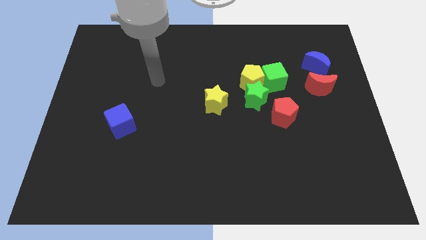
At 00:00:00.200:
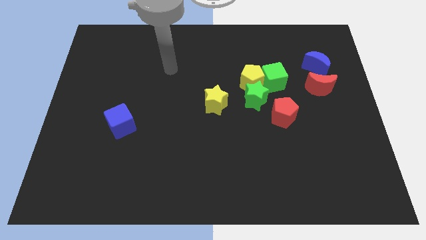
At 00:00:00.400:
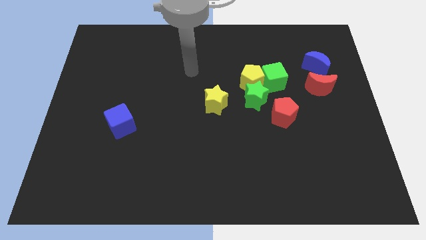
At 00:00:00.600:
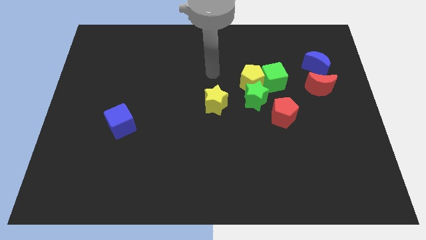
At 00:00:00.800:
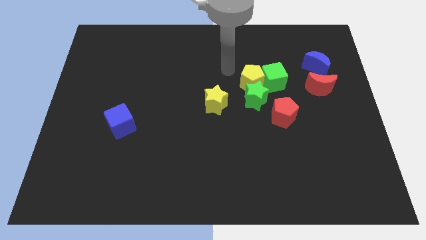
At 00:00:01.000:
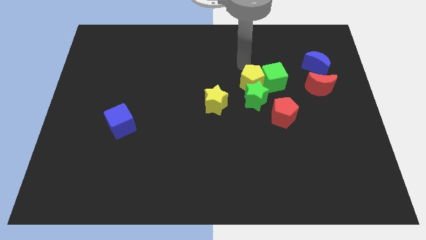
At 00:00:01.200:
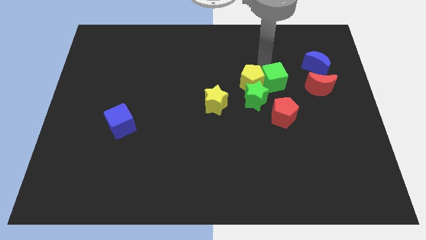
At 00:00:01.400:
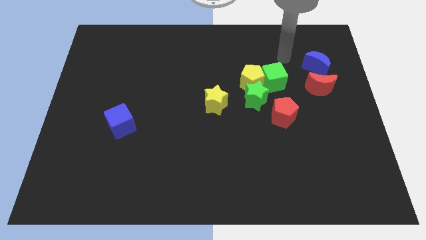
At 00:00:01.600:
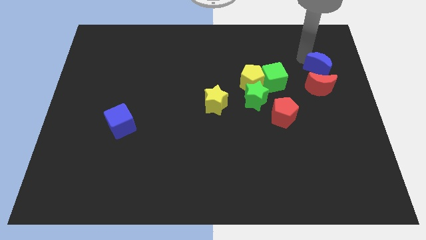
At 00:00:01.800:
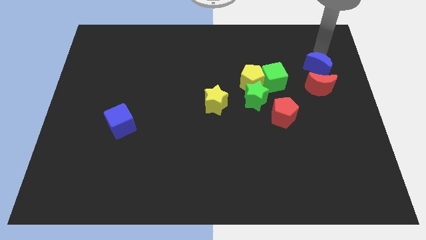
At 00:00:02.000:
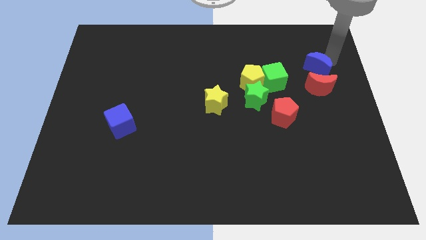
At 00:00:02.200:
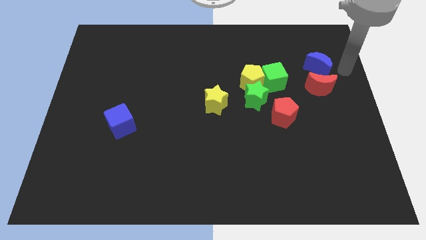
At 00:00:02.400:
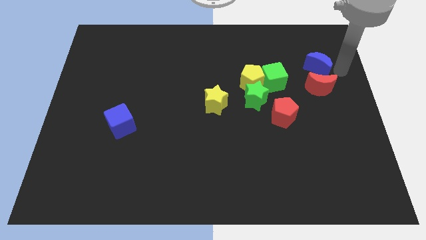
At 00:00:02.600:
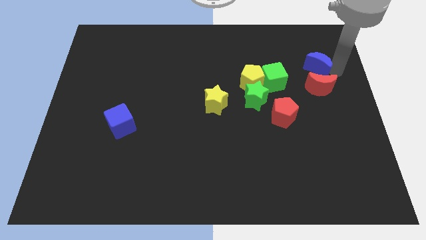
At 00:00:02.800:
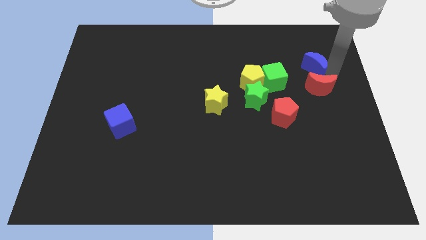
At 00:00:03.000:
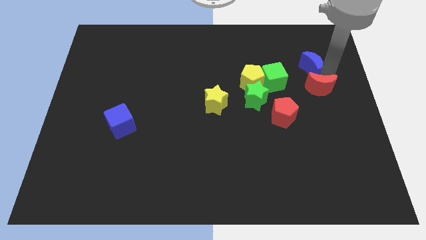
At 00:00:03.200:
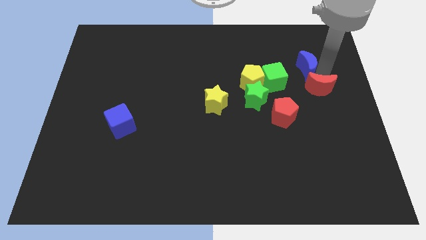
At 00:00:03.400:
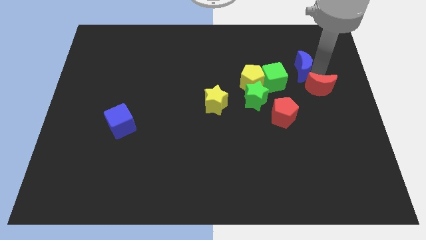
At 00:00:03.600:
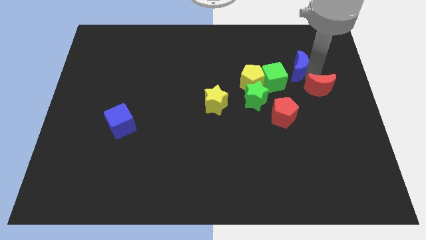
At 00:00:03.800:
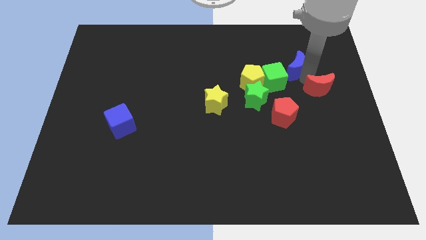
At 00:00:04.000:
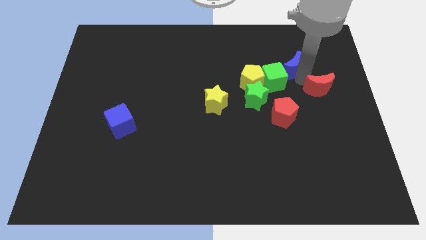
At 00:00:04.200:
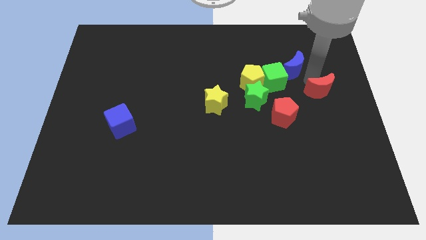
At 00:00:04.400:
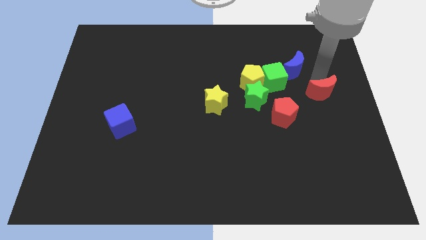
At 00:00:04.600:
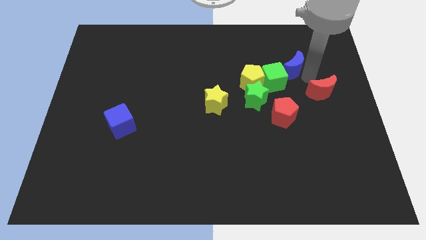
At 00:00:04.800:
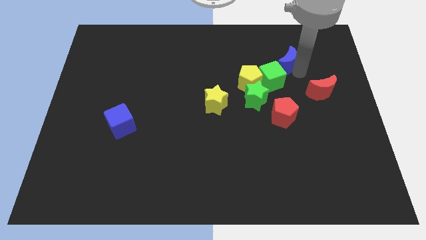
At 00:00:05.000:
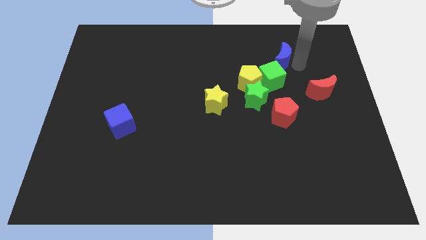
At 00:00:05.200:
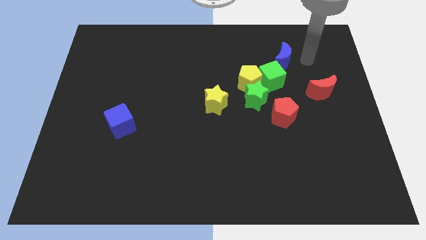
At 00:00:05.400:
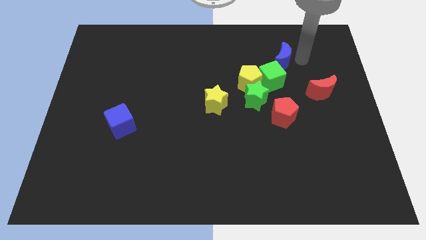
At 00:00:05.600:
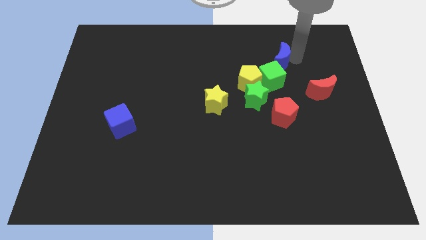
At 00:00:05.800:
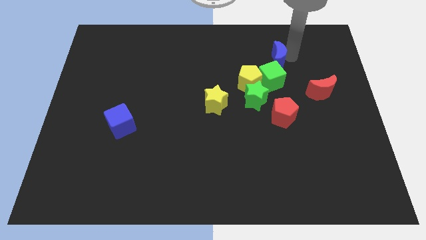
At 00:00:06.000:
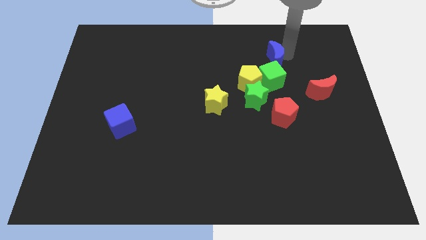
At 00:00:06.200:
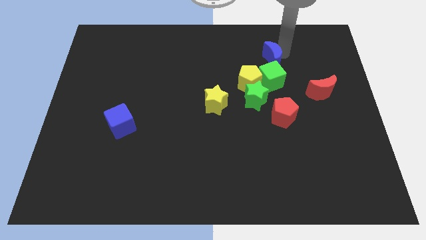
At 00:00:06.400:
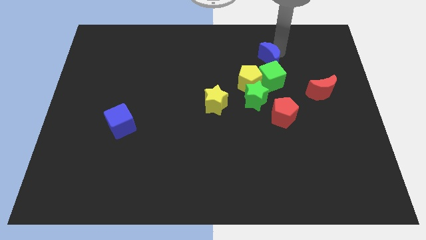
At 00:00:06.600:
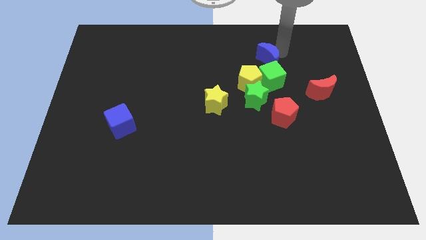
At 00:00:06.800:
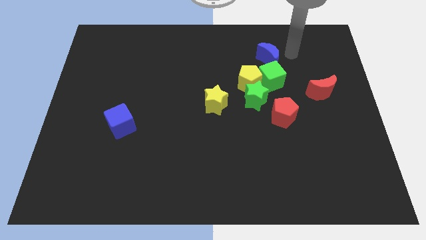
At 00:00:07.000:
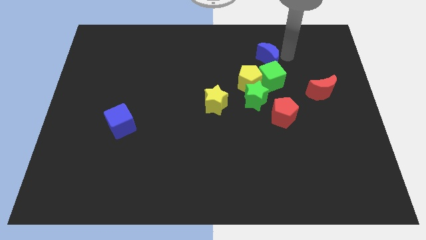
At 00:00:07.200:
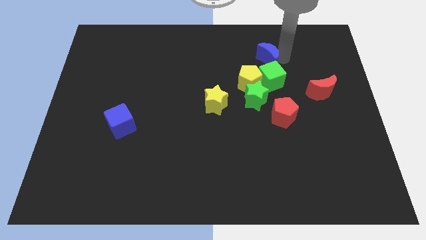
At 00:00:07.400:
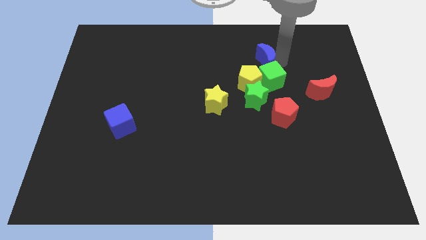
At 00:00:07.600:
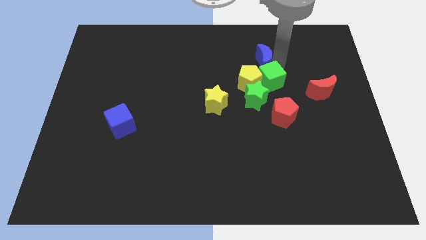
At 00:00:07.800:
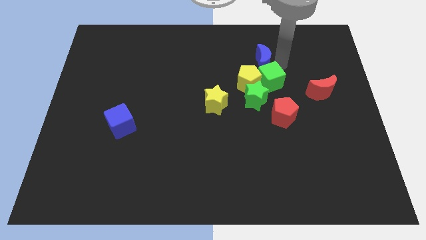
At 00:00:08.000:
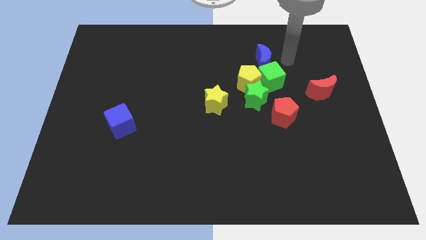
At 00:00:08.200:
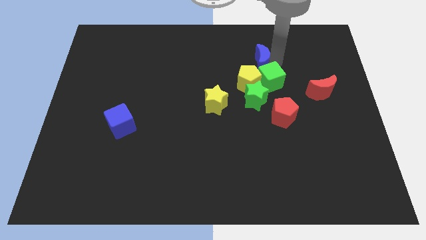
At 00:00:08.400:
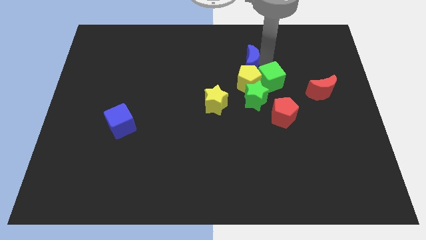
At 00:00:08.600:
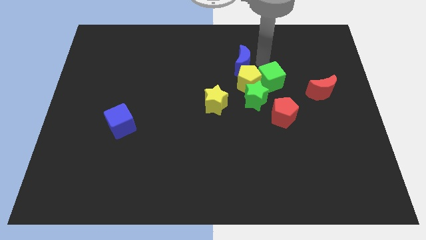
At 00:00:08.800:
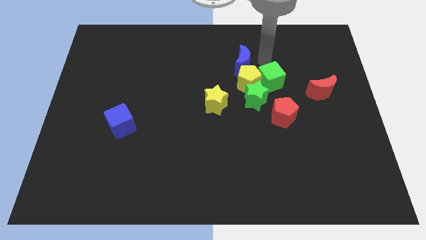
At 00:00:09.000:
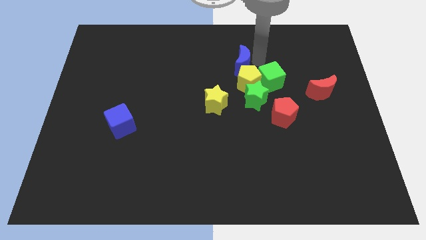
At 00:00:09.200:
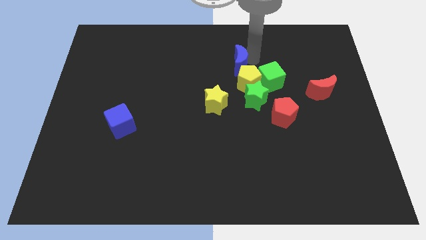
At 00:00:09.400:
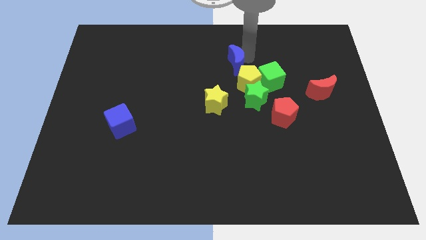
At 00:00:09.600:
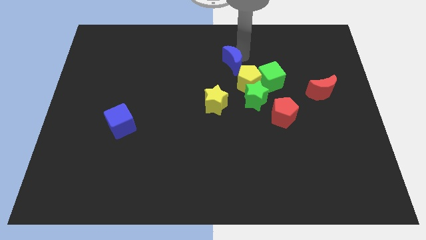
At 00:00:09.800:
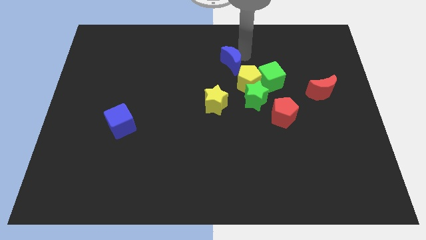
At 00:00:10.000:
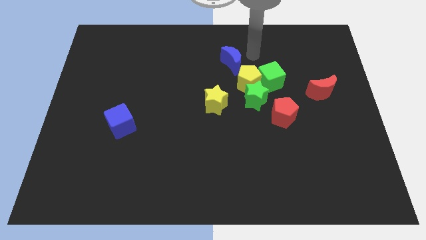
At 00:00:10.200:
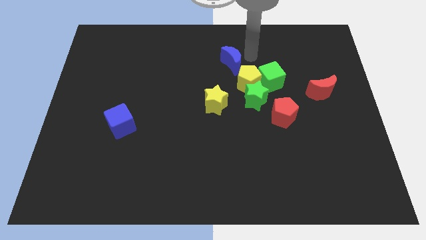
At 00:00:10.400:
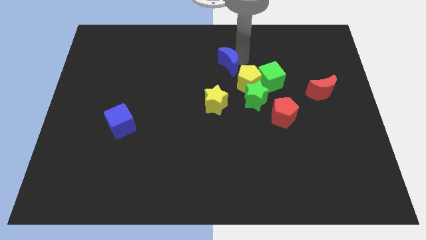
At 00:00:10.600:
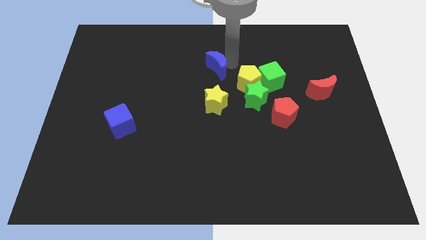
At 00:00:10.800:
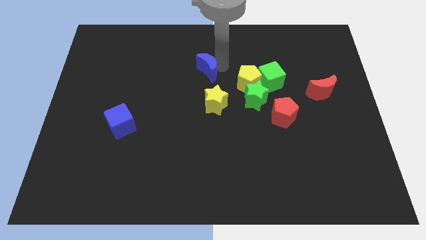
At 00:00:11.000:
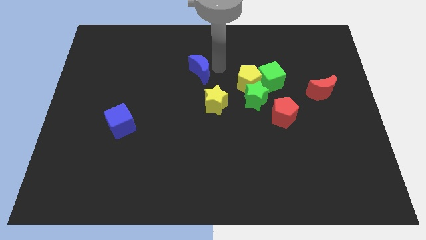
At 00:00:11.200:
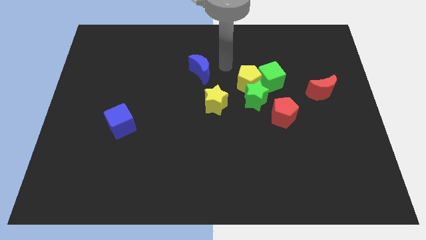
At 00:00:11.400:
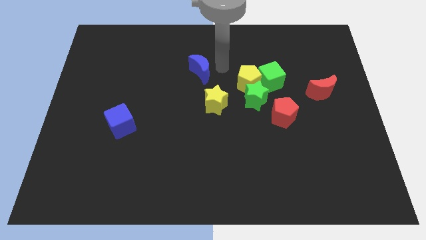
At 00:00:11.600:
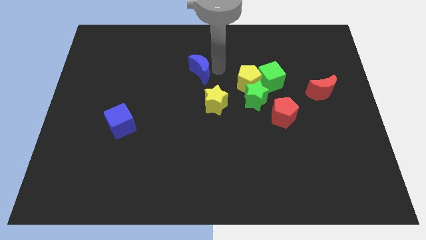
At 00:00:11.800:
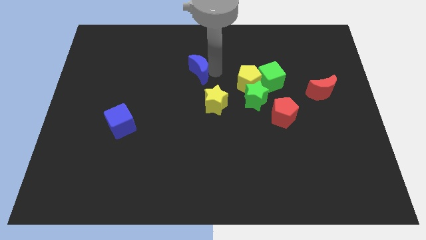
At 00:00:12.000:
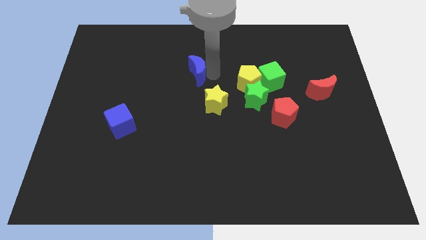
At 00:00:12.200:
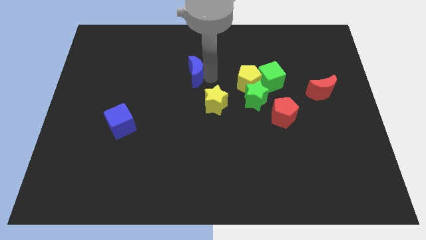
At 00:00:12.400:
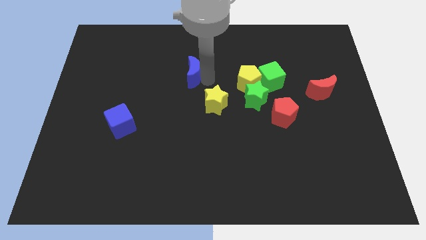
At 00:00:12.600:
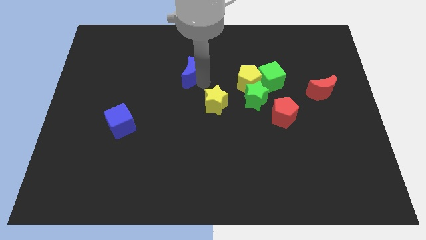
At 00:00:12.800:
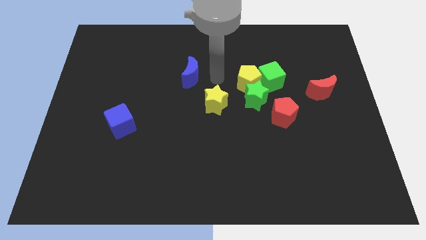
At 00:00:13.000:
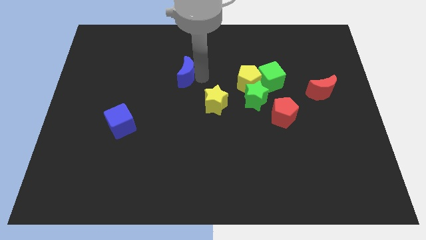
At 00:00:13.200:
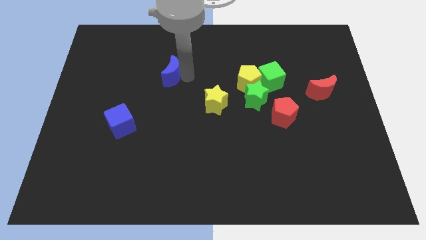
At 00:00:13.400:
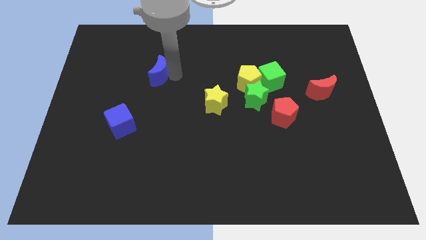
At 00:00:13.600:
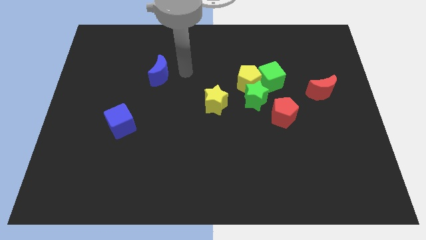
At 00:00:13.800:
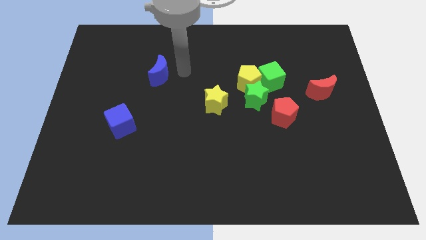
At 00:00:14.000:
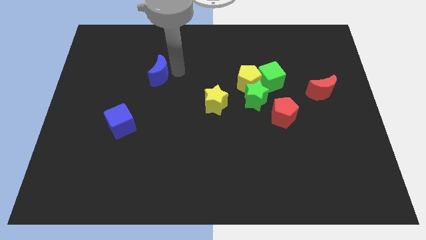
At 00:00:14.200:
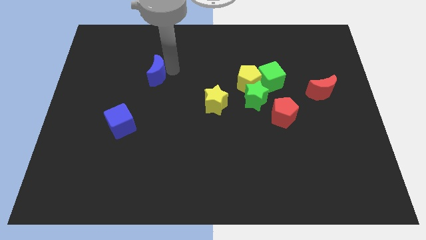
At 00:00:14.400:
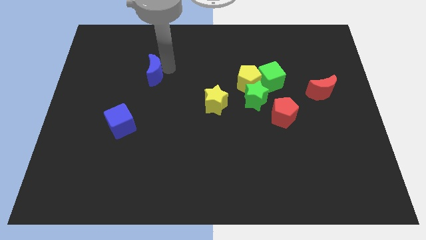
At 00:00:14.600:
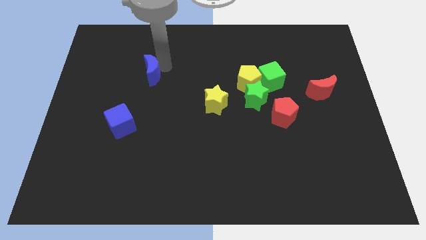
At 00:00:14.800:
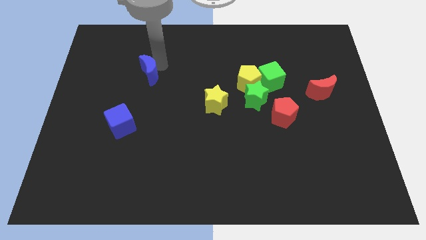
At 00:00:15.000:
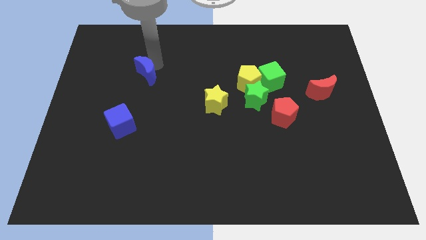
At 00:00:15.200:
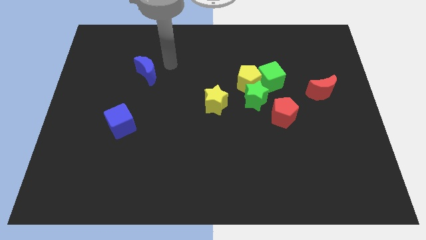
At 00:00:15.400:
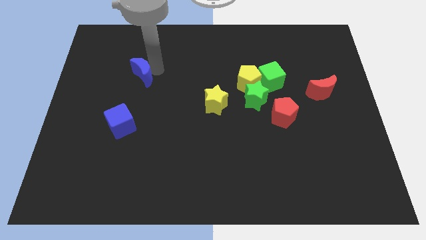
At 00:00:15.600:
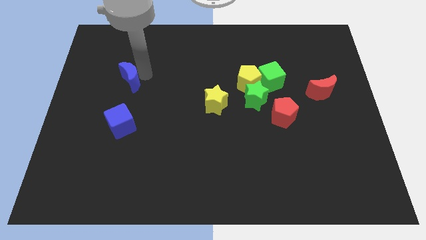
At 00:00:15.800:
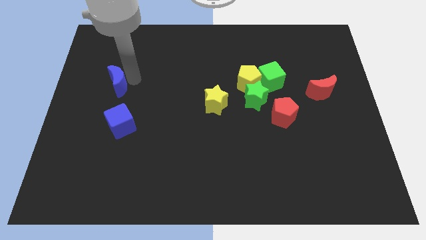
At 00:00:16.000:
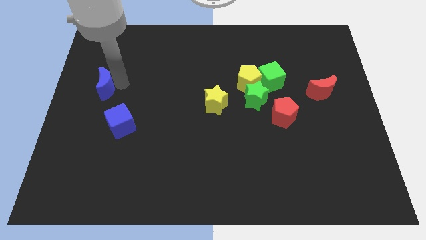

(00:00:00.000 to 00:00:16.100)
put the blue moon to the left side of the board
